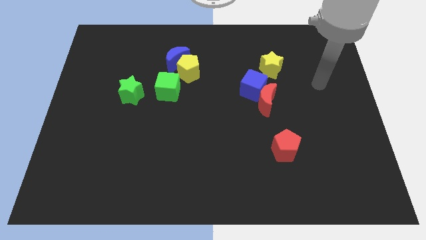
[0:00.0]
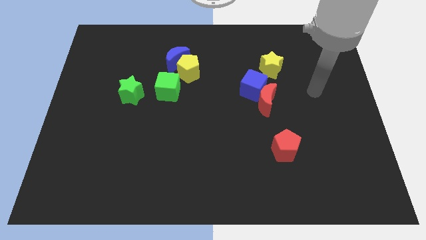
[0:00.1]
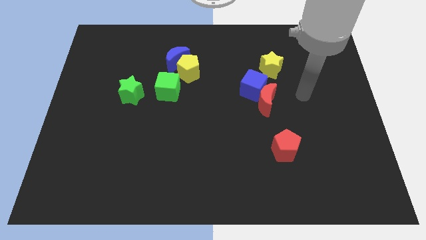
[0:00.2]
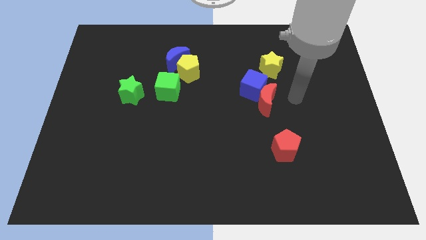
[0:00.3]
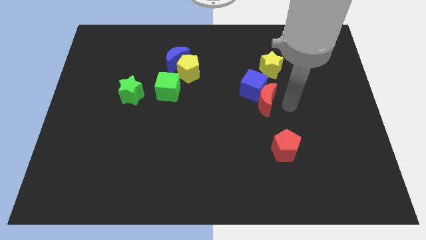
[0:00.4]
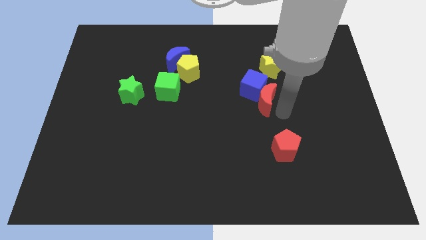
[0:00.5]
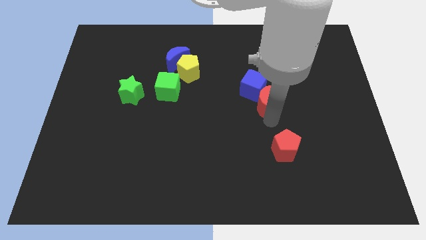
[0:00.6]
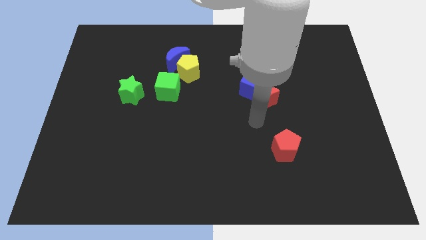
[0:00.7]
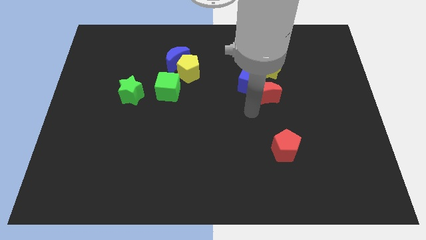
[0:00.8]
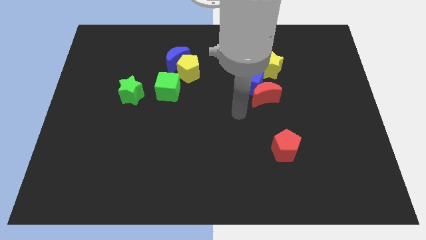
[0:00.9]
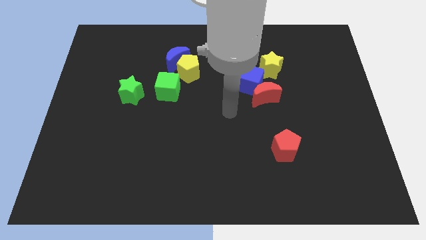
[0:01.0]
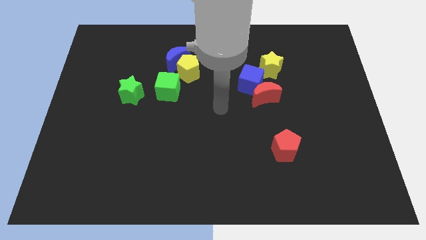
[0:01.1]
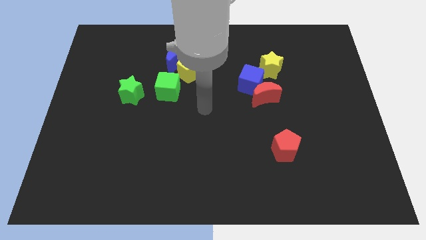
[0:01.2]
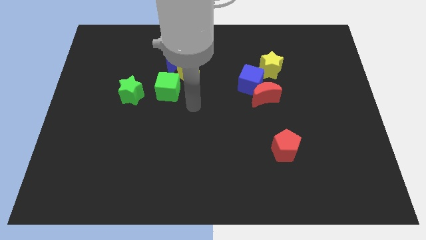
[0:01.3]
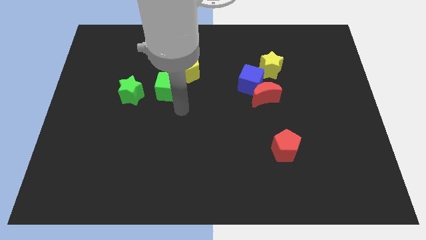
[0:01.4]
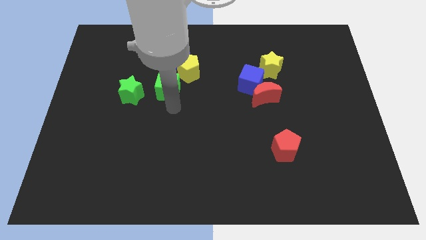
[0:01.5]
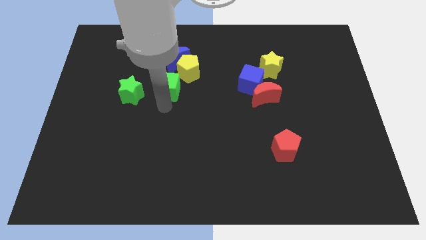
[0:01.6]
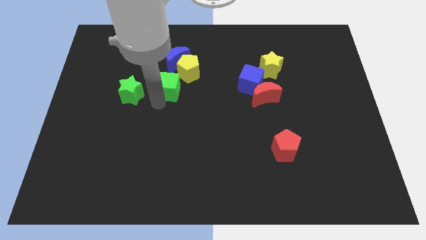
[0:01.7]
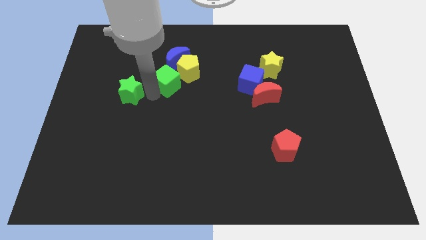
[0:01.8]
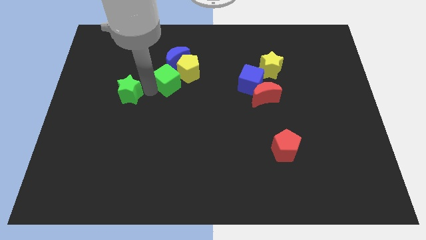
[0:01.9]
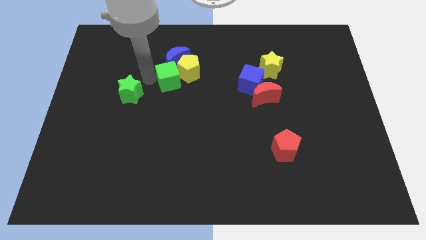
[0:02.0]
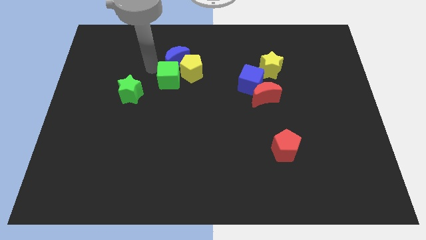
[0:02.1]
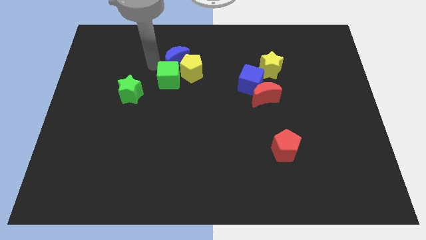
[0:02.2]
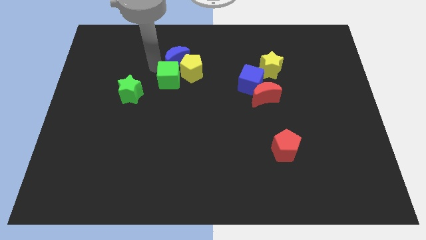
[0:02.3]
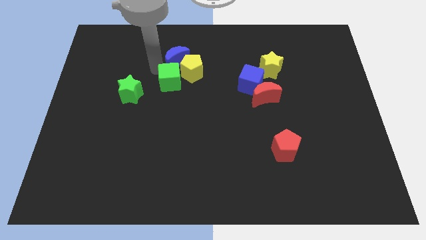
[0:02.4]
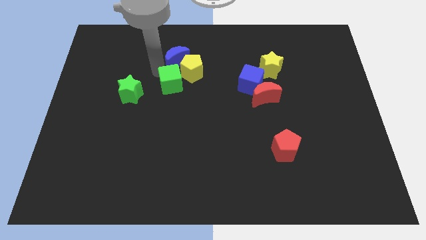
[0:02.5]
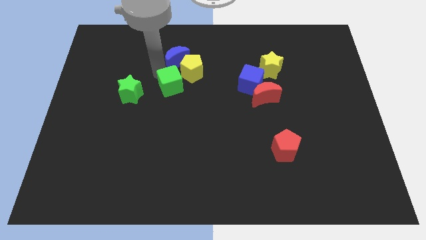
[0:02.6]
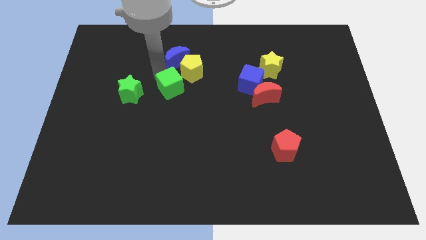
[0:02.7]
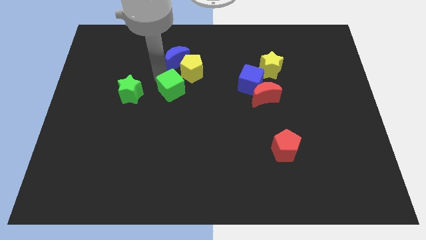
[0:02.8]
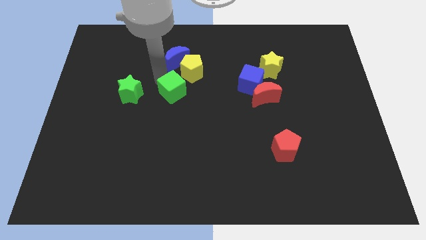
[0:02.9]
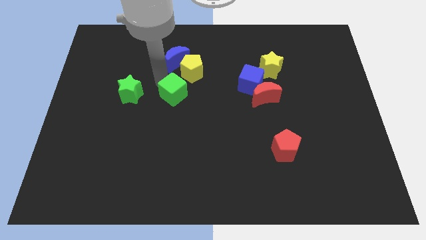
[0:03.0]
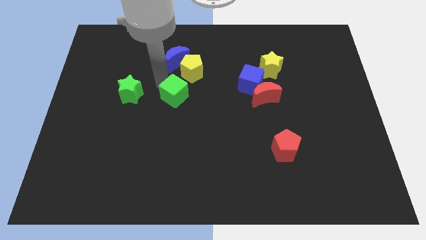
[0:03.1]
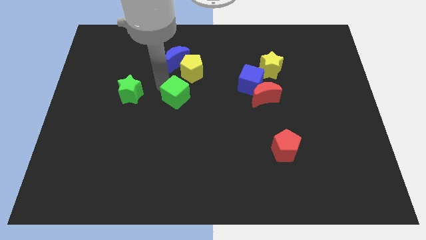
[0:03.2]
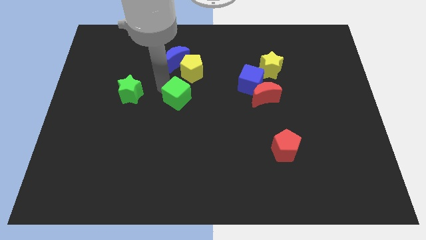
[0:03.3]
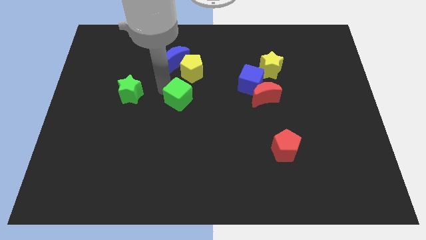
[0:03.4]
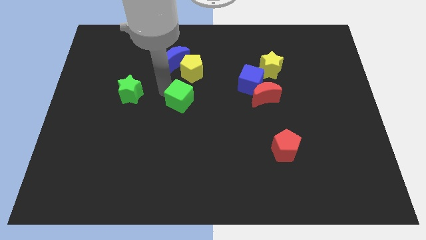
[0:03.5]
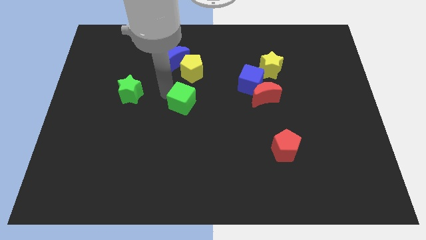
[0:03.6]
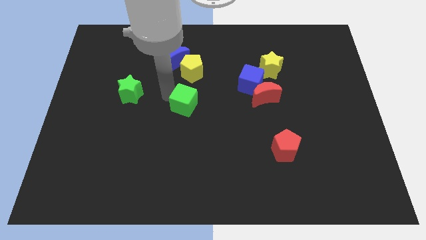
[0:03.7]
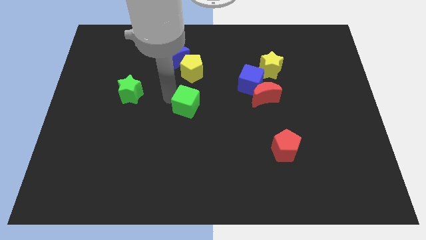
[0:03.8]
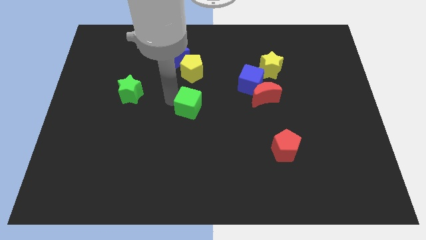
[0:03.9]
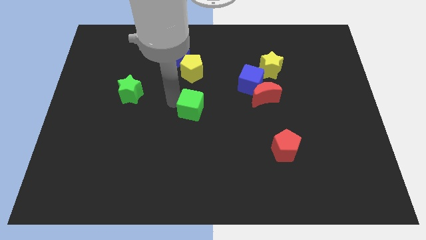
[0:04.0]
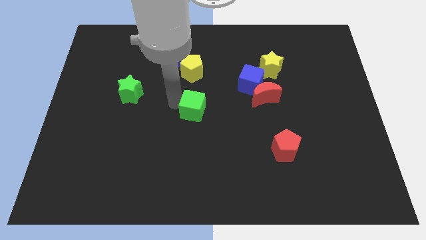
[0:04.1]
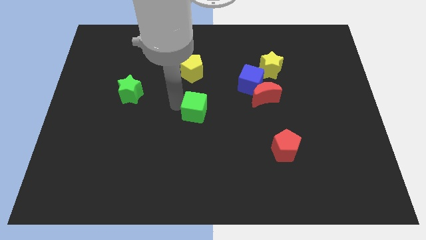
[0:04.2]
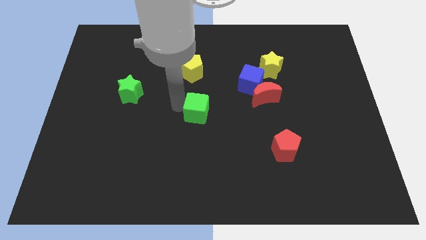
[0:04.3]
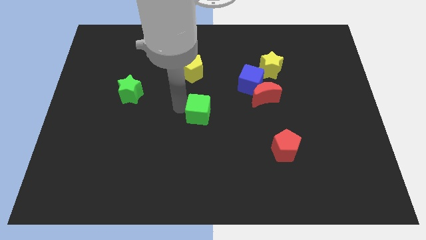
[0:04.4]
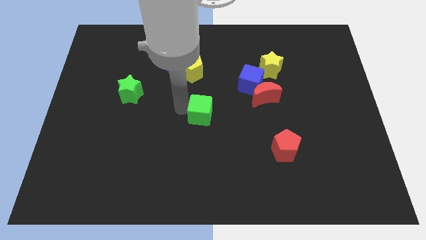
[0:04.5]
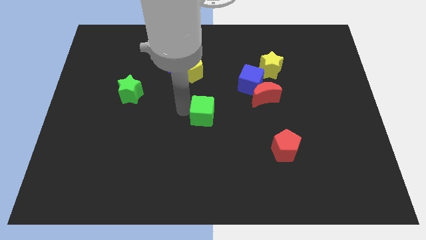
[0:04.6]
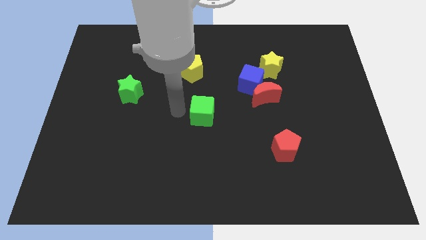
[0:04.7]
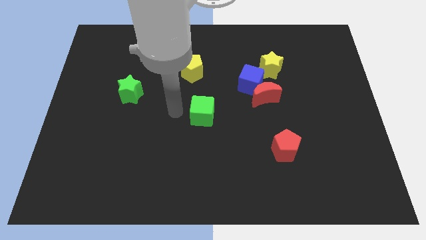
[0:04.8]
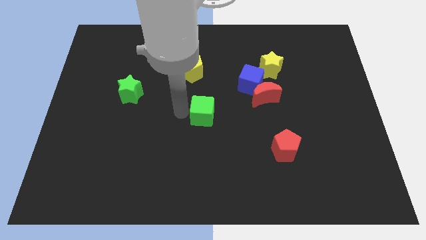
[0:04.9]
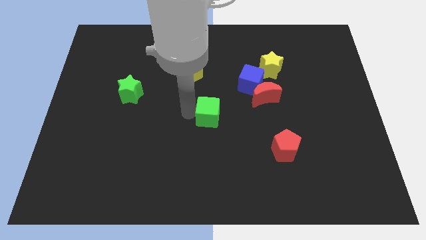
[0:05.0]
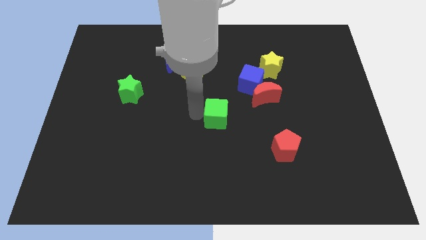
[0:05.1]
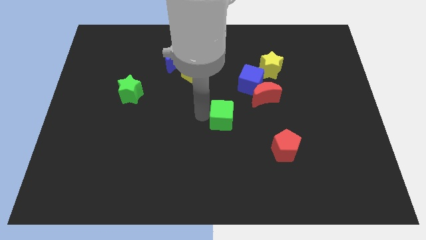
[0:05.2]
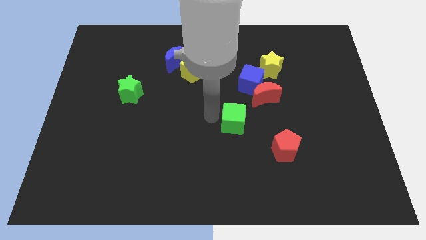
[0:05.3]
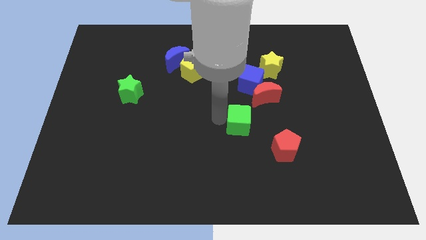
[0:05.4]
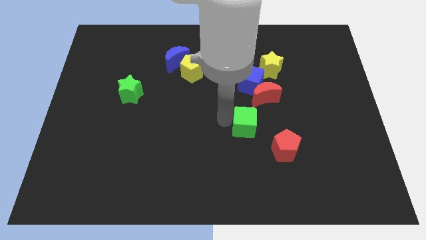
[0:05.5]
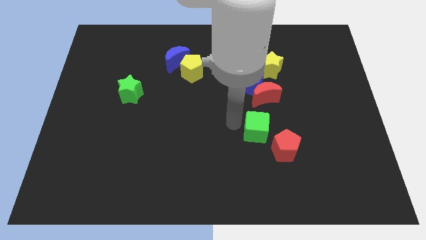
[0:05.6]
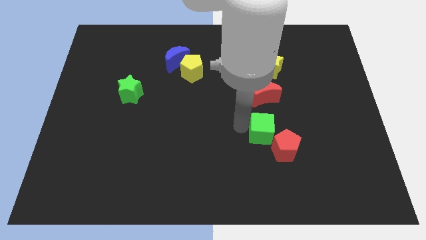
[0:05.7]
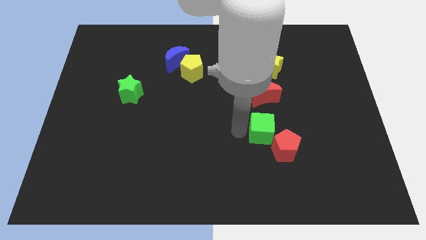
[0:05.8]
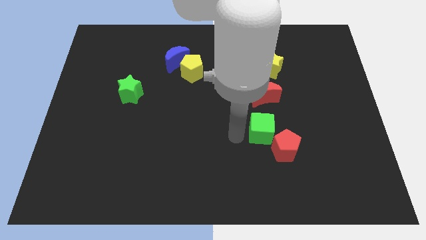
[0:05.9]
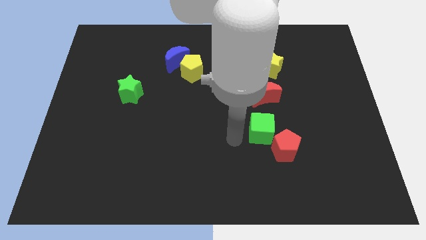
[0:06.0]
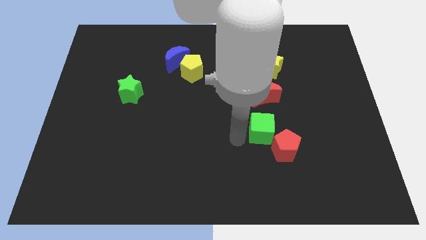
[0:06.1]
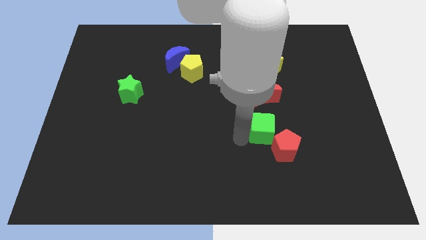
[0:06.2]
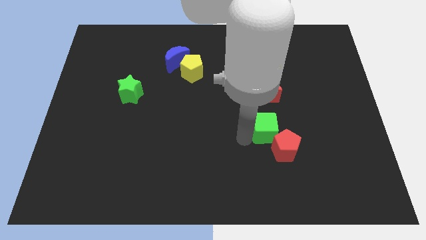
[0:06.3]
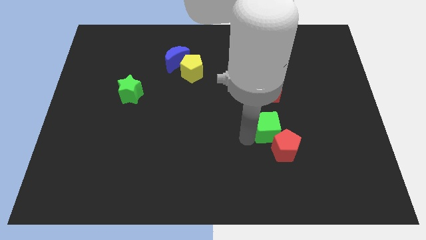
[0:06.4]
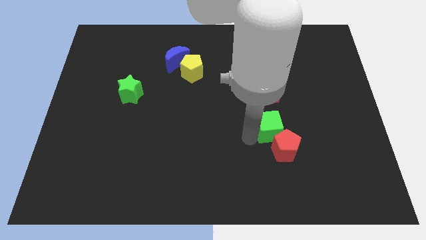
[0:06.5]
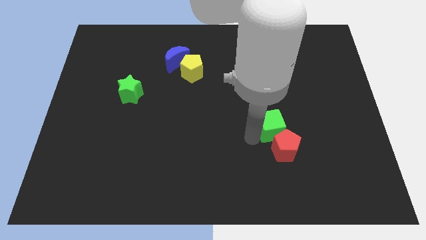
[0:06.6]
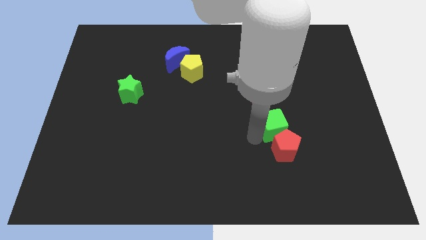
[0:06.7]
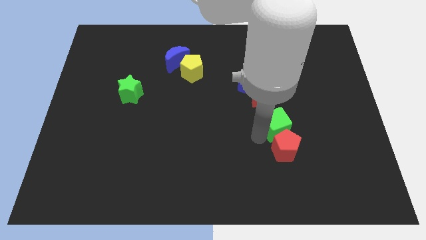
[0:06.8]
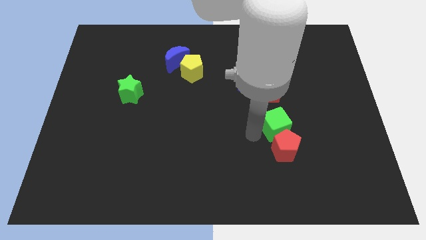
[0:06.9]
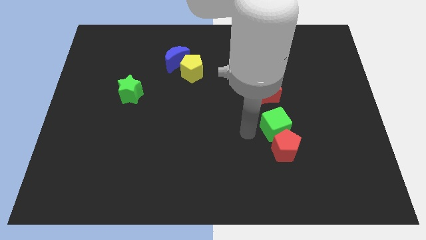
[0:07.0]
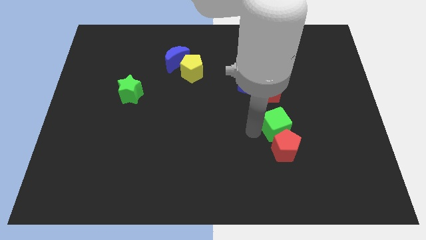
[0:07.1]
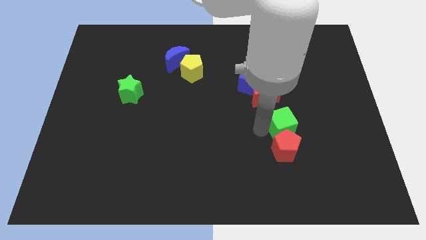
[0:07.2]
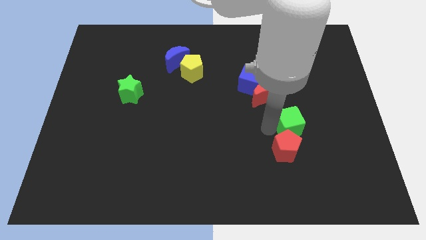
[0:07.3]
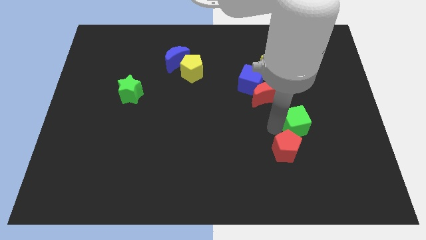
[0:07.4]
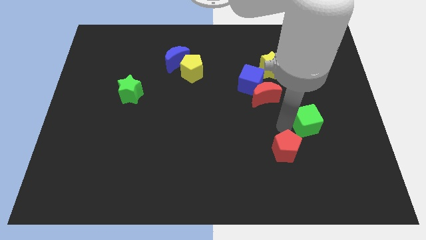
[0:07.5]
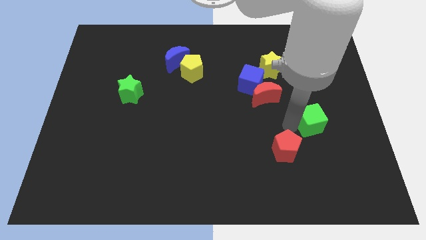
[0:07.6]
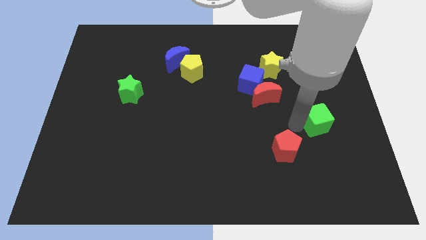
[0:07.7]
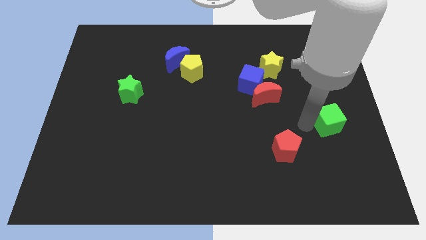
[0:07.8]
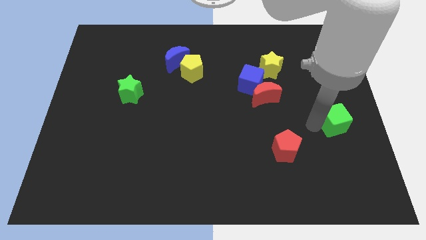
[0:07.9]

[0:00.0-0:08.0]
push the green cube to the right side of the board
